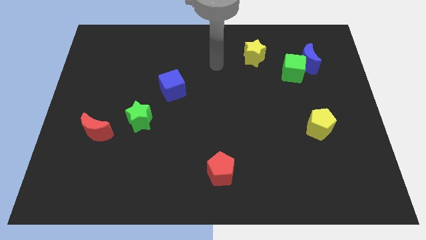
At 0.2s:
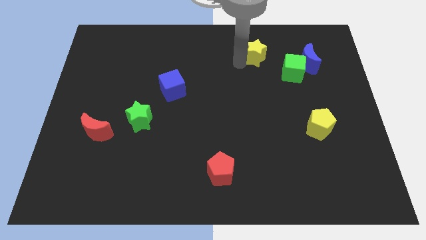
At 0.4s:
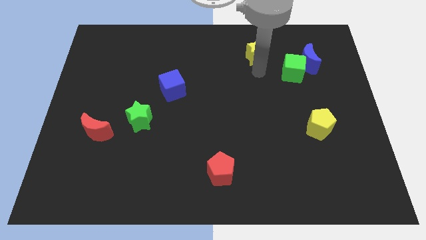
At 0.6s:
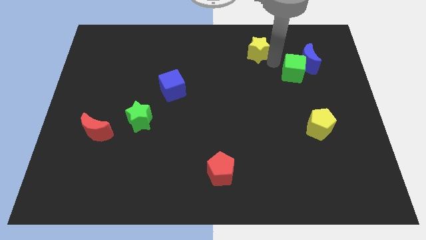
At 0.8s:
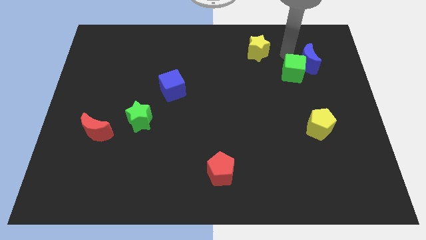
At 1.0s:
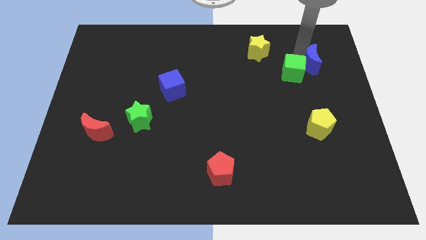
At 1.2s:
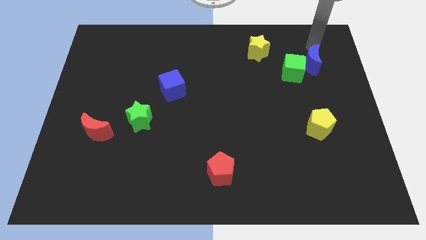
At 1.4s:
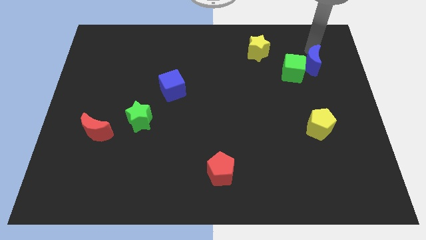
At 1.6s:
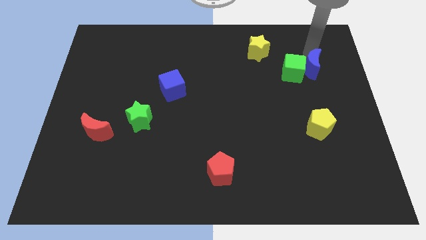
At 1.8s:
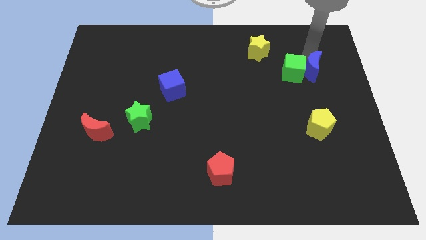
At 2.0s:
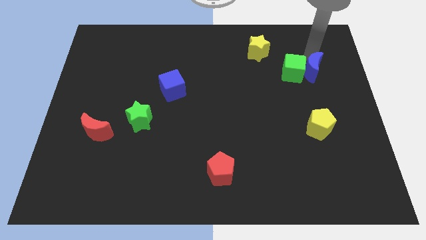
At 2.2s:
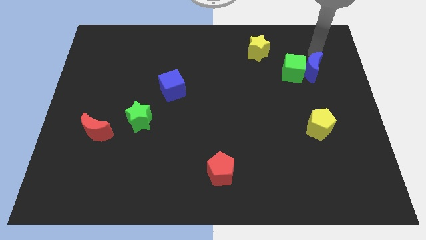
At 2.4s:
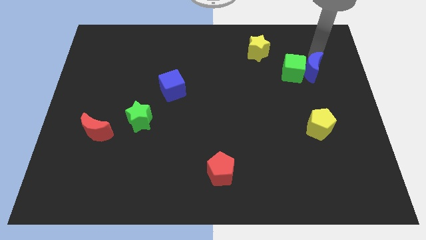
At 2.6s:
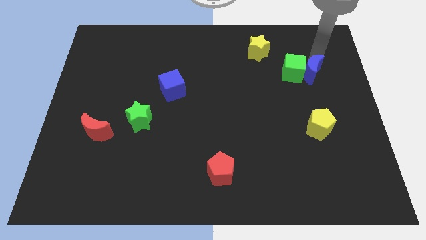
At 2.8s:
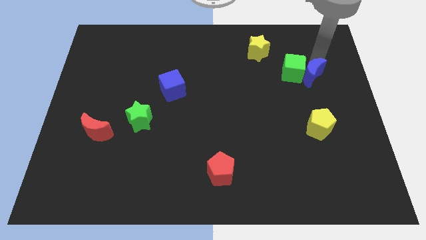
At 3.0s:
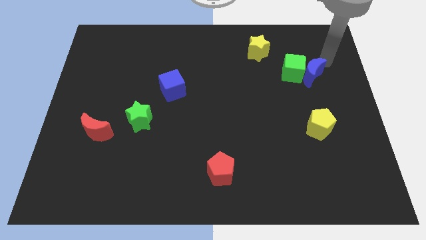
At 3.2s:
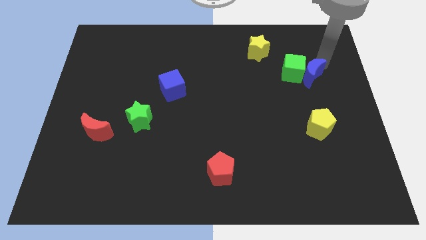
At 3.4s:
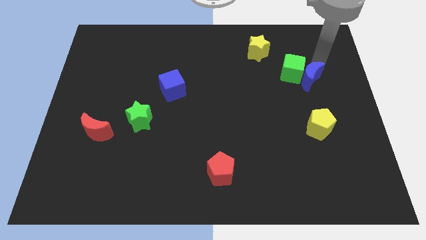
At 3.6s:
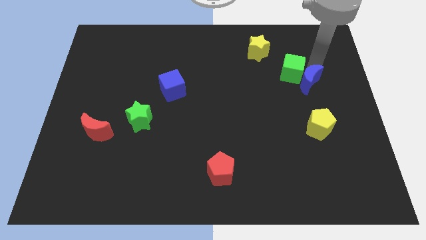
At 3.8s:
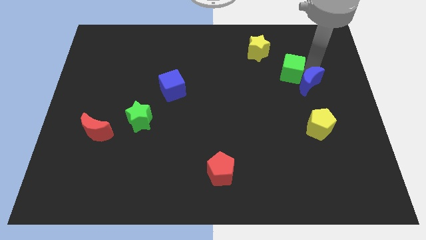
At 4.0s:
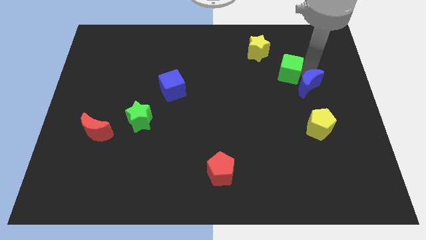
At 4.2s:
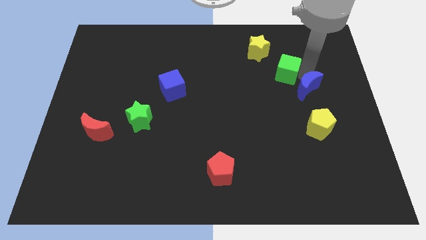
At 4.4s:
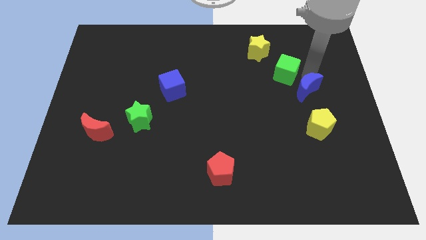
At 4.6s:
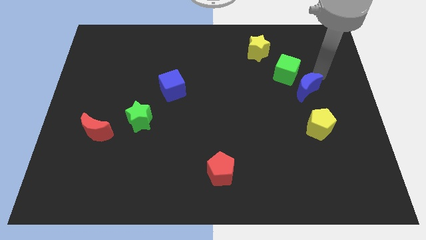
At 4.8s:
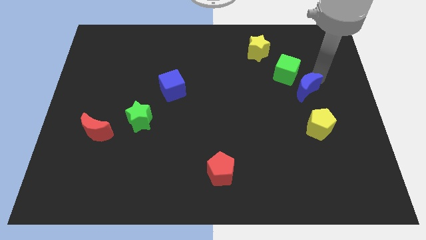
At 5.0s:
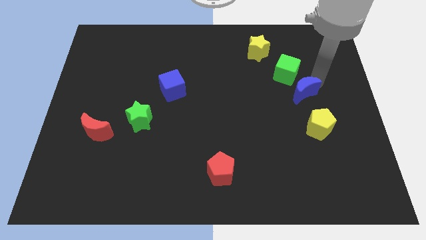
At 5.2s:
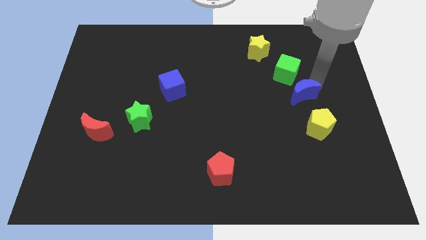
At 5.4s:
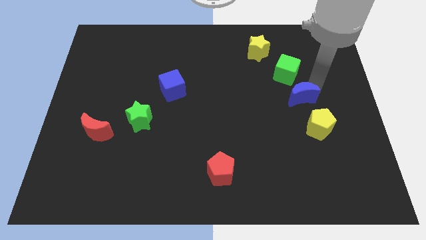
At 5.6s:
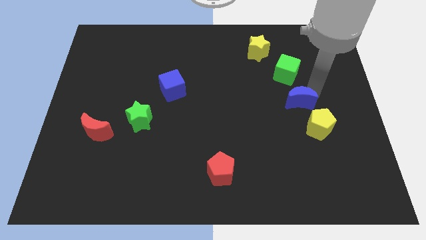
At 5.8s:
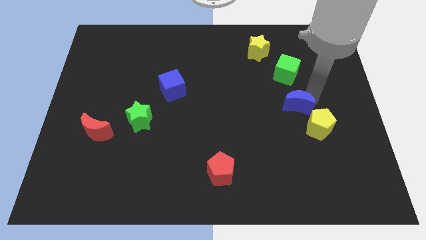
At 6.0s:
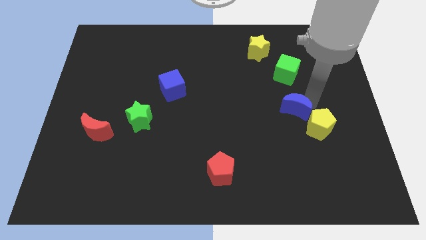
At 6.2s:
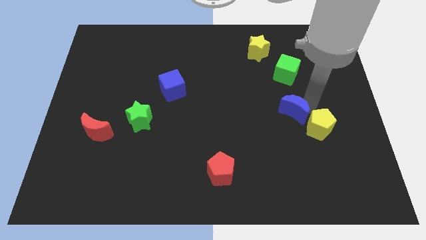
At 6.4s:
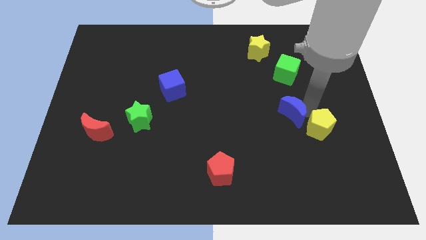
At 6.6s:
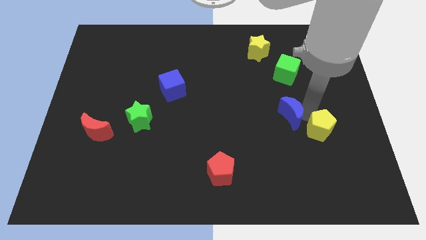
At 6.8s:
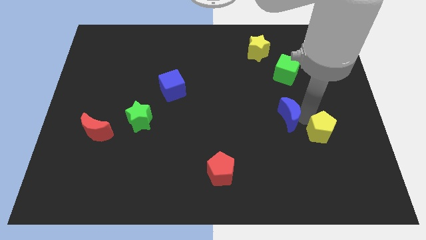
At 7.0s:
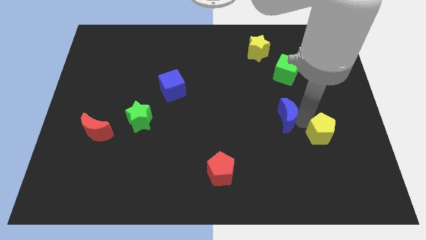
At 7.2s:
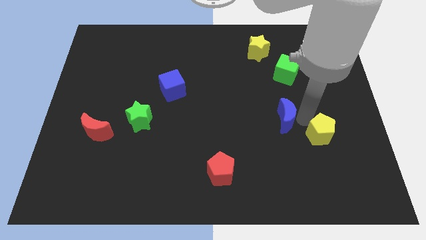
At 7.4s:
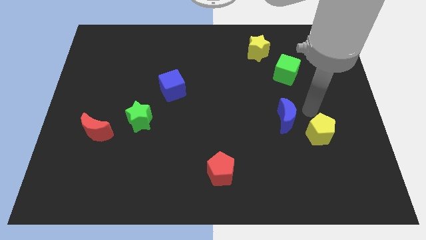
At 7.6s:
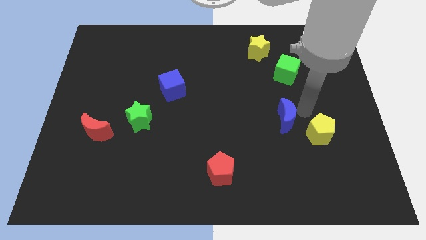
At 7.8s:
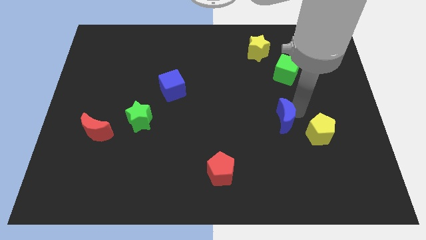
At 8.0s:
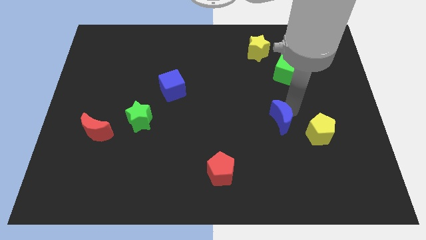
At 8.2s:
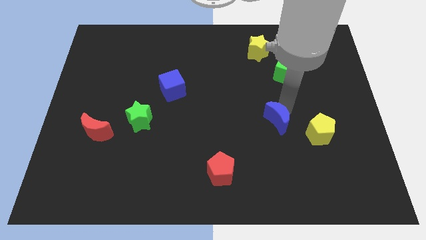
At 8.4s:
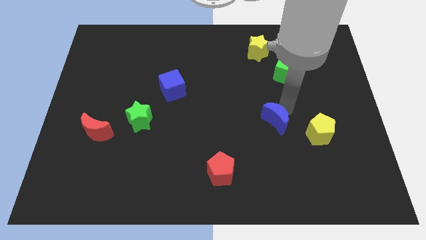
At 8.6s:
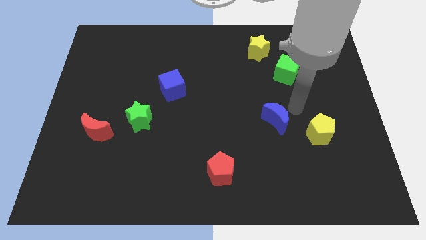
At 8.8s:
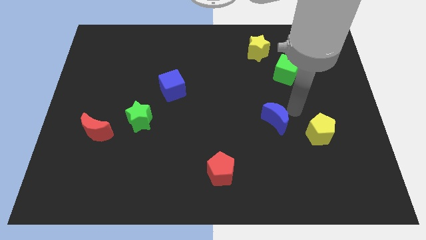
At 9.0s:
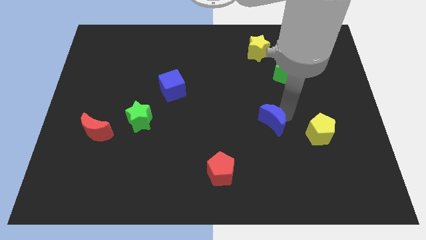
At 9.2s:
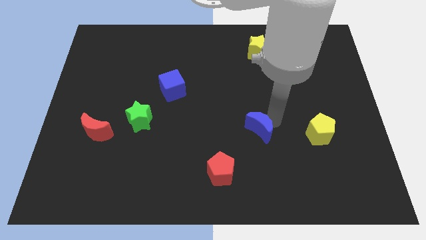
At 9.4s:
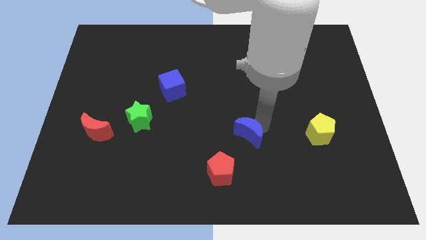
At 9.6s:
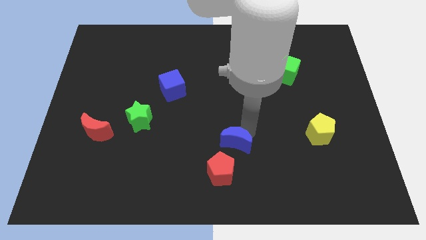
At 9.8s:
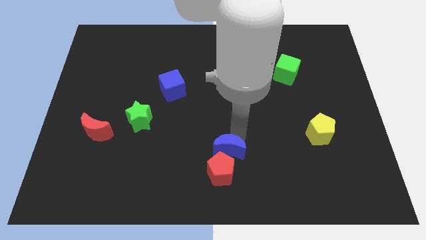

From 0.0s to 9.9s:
move the blue moon close to the red pentagon

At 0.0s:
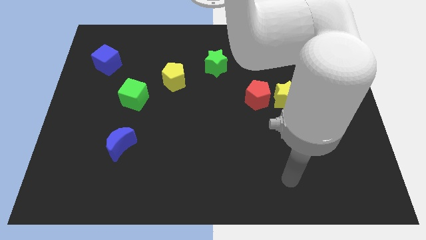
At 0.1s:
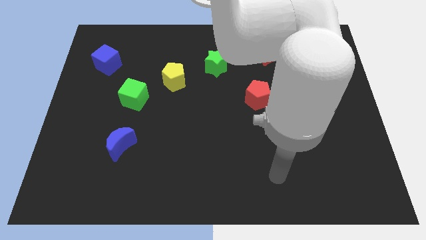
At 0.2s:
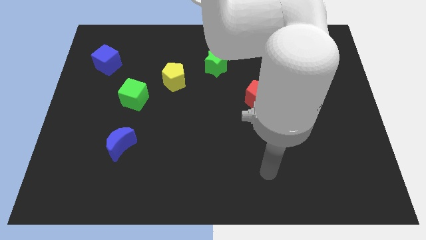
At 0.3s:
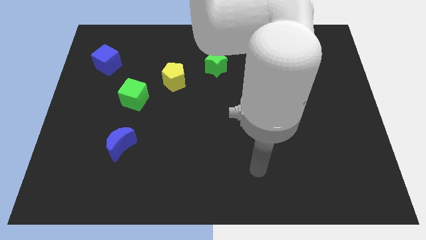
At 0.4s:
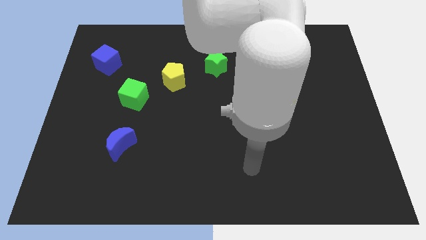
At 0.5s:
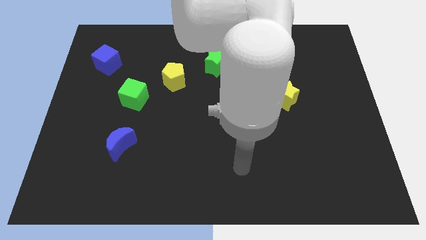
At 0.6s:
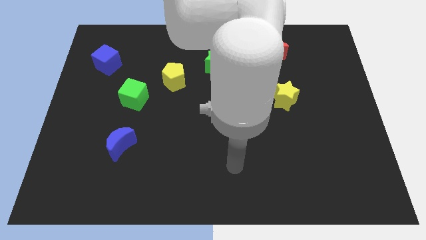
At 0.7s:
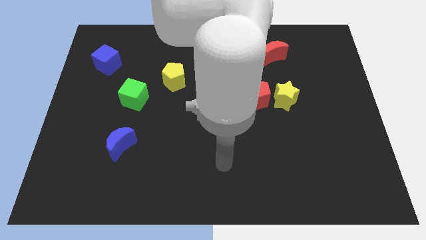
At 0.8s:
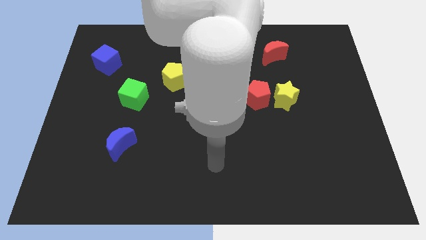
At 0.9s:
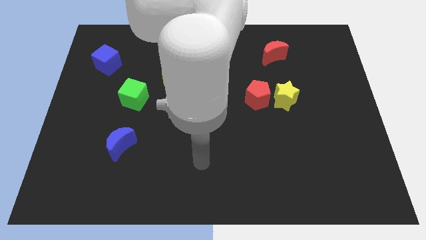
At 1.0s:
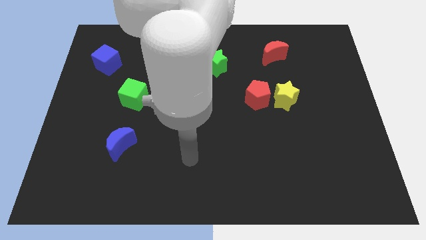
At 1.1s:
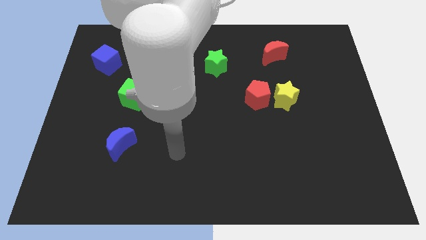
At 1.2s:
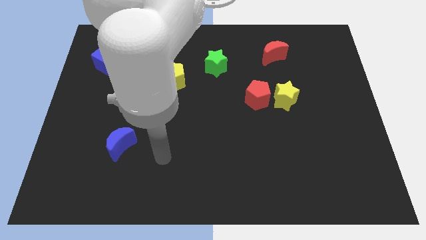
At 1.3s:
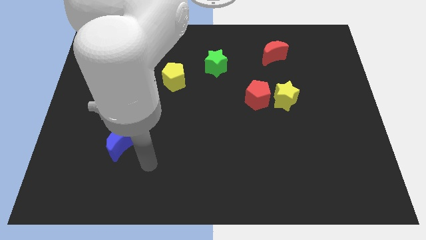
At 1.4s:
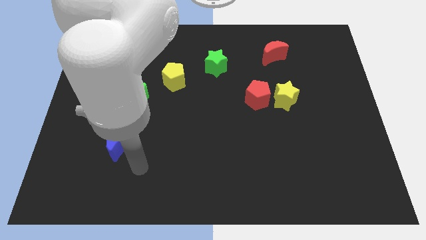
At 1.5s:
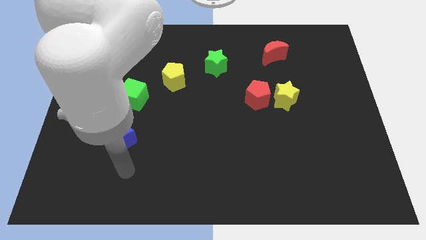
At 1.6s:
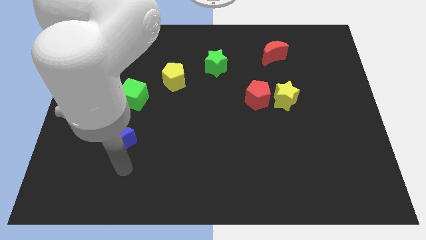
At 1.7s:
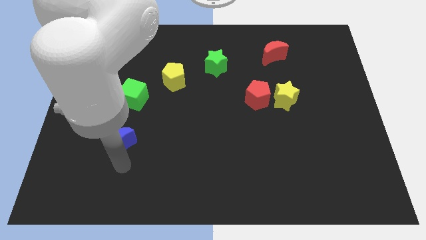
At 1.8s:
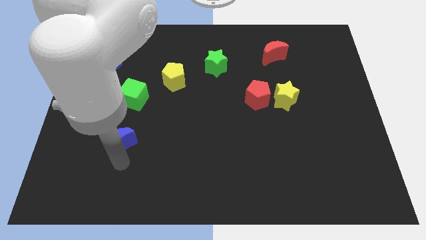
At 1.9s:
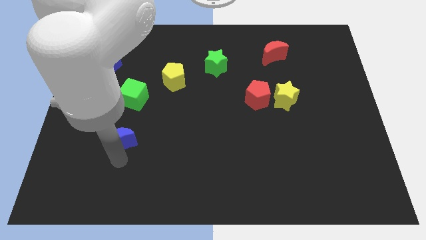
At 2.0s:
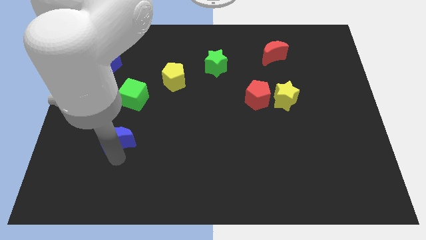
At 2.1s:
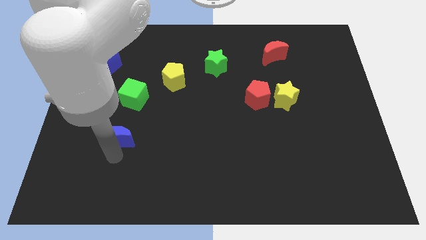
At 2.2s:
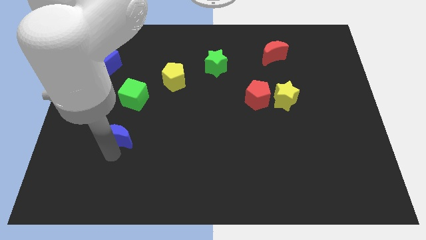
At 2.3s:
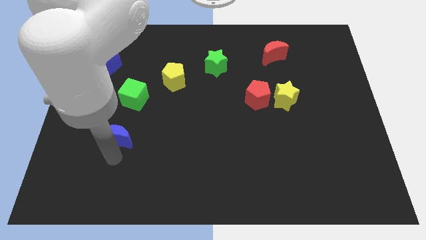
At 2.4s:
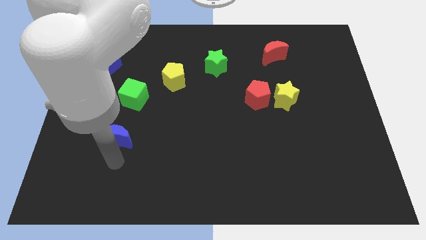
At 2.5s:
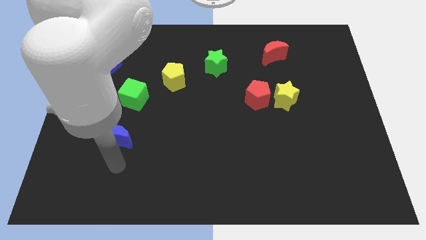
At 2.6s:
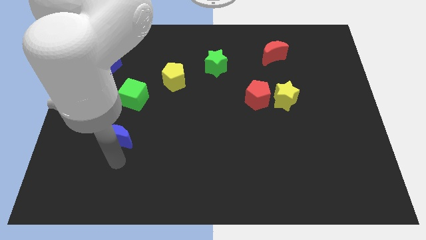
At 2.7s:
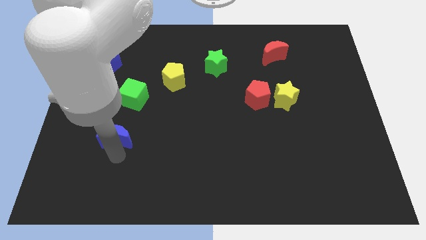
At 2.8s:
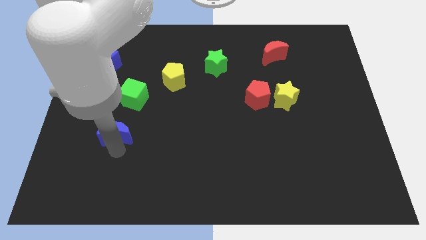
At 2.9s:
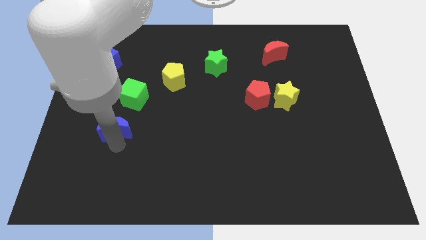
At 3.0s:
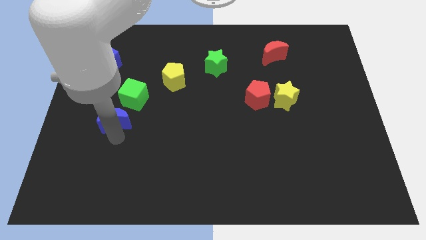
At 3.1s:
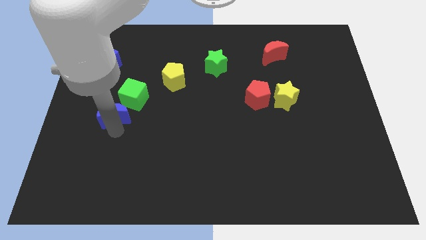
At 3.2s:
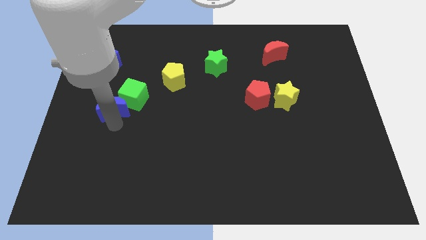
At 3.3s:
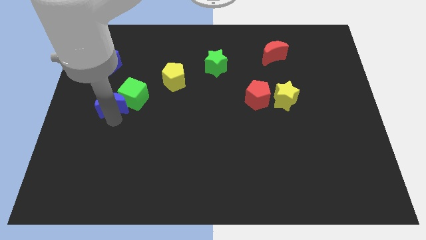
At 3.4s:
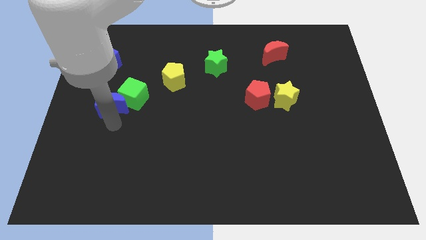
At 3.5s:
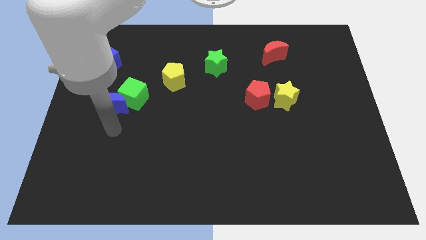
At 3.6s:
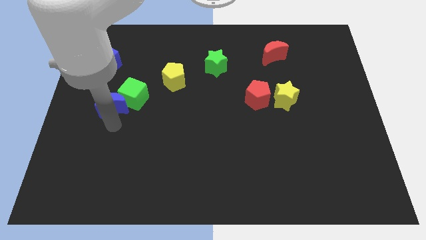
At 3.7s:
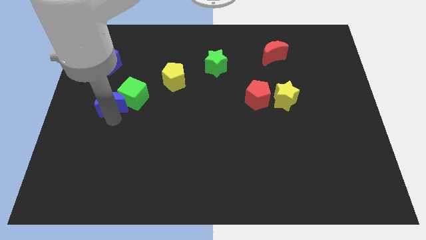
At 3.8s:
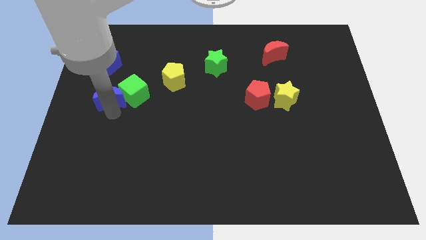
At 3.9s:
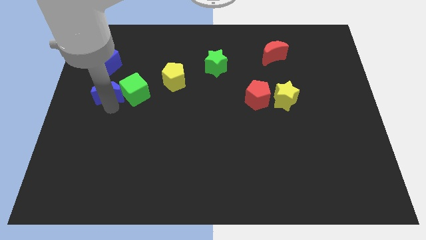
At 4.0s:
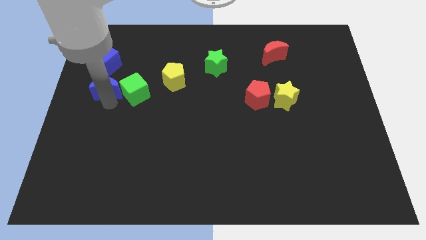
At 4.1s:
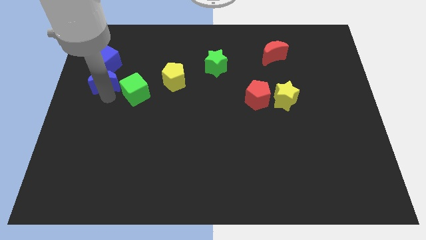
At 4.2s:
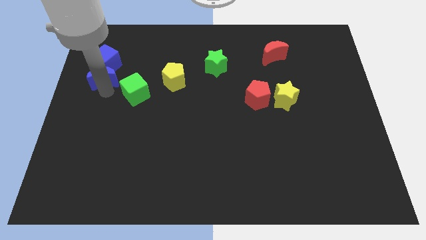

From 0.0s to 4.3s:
put the blue moon close to the blue cube
